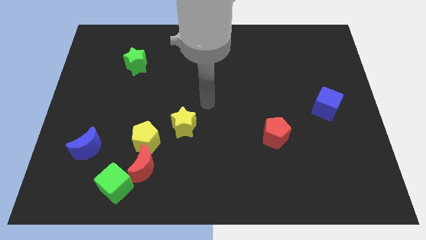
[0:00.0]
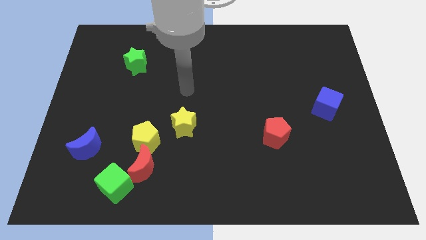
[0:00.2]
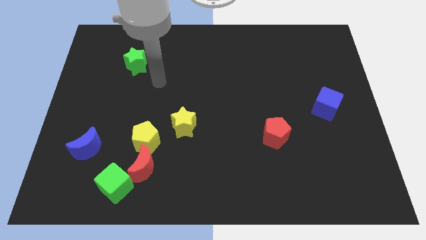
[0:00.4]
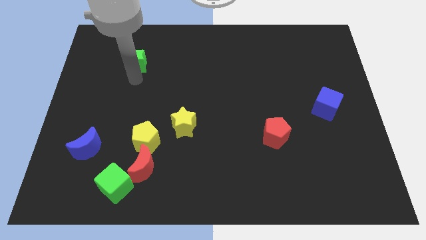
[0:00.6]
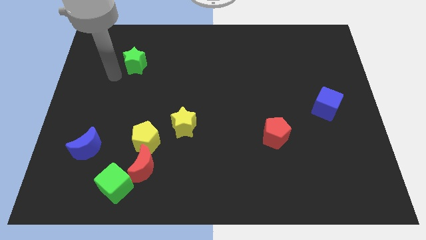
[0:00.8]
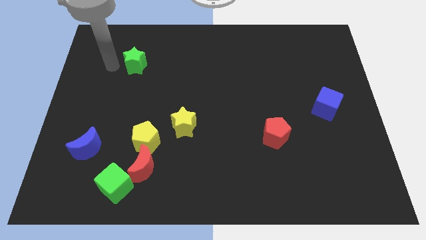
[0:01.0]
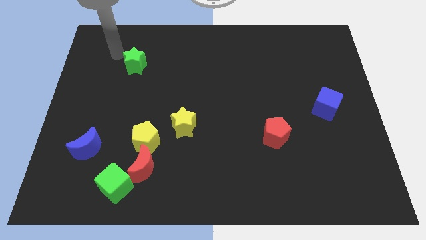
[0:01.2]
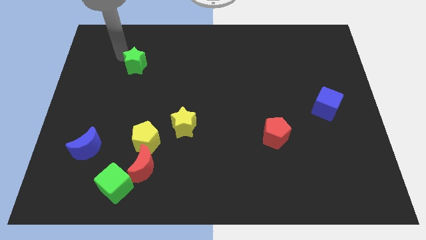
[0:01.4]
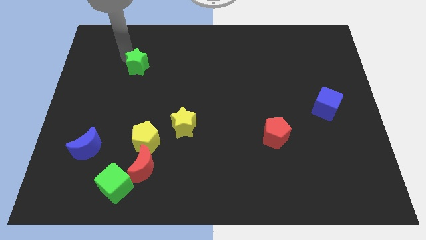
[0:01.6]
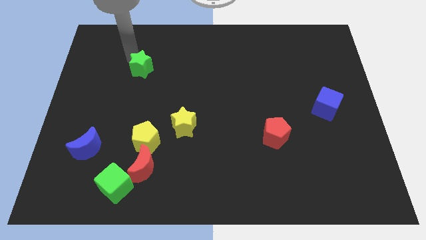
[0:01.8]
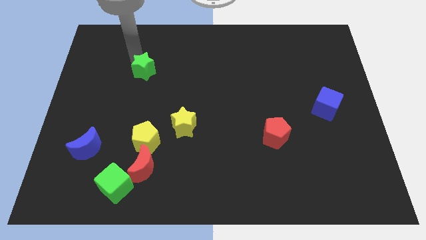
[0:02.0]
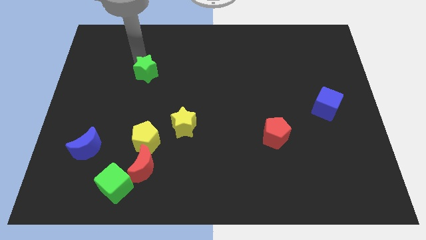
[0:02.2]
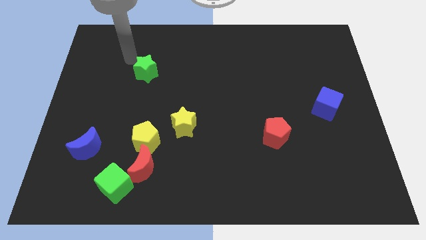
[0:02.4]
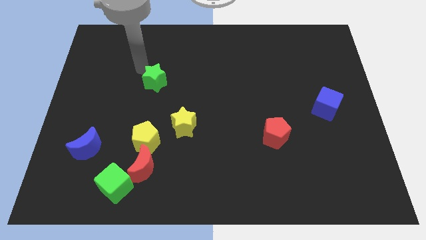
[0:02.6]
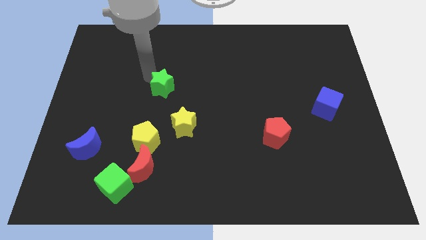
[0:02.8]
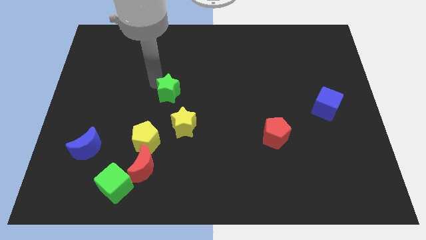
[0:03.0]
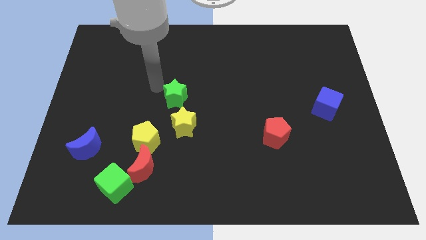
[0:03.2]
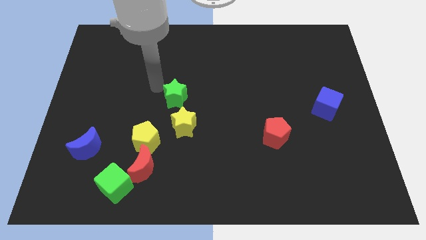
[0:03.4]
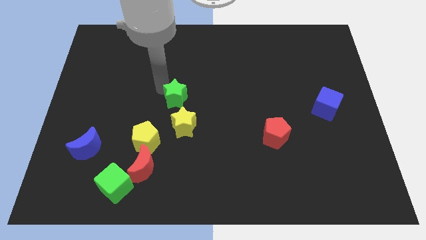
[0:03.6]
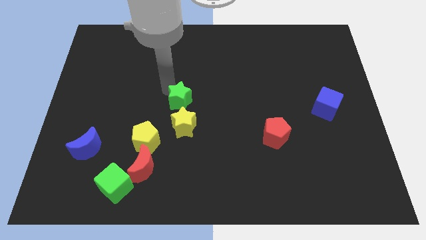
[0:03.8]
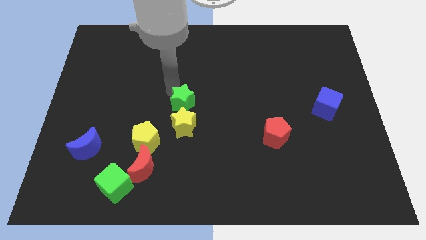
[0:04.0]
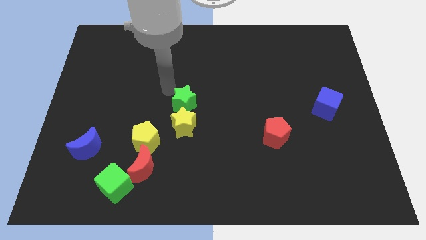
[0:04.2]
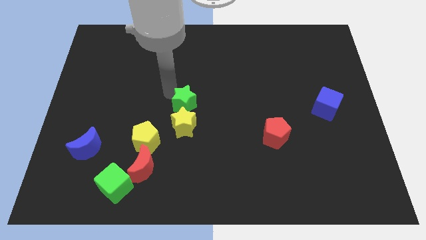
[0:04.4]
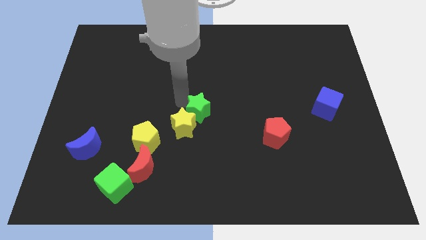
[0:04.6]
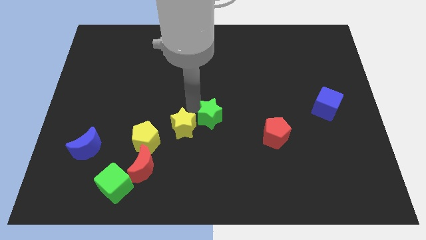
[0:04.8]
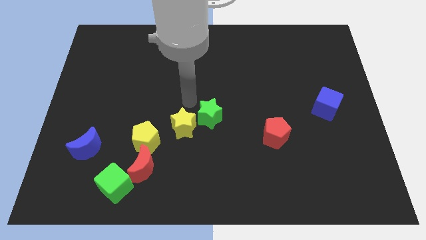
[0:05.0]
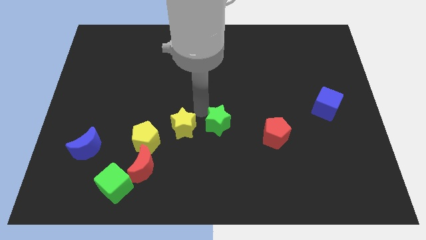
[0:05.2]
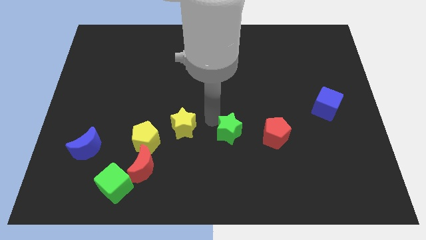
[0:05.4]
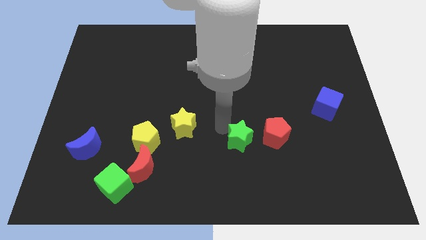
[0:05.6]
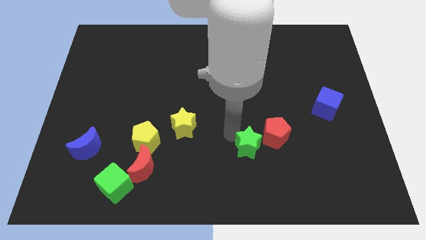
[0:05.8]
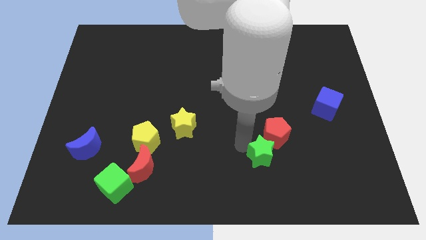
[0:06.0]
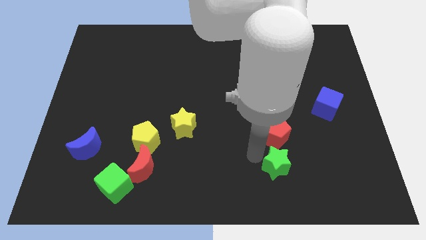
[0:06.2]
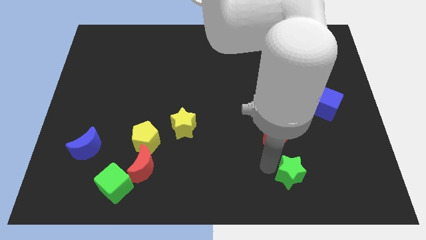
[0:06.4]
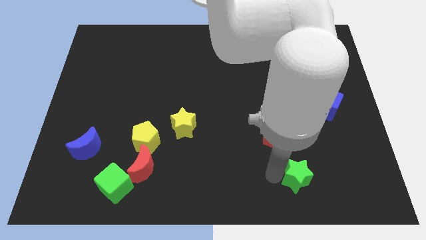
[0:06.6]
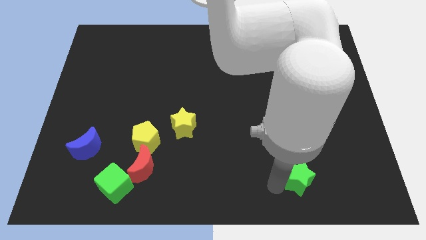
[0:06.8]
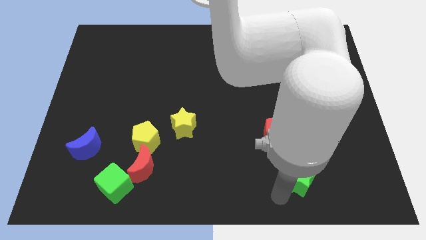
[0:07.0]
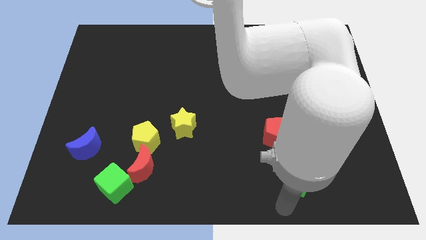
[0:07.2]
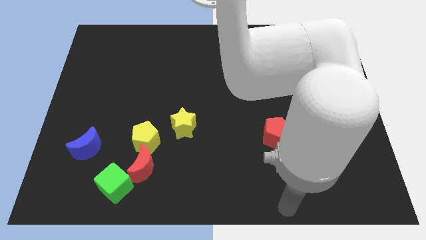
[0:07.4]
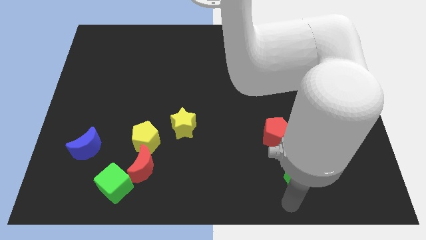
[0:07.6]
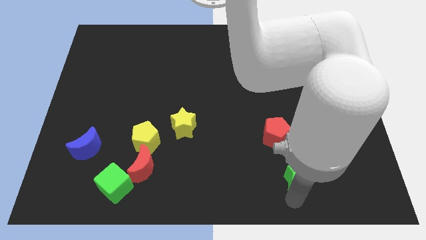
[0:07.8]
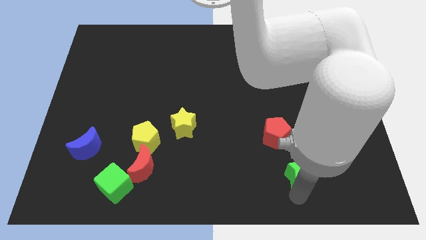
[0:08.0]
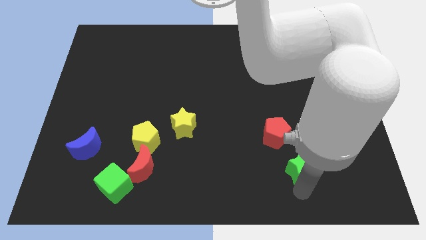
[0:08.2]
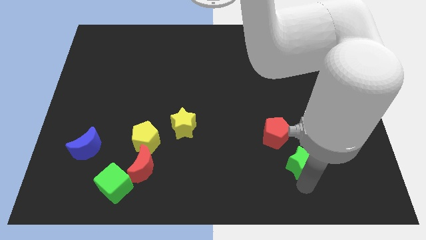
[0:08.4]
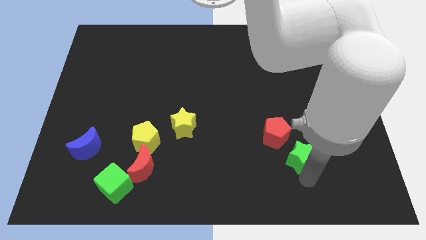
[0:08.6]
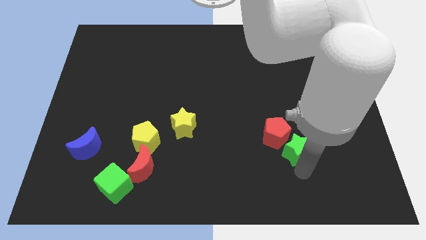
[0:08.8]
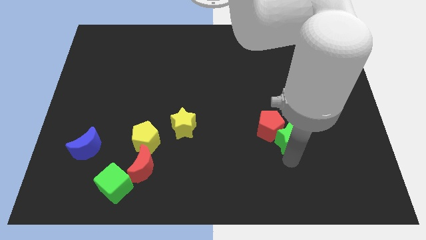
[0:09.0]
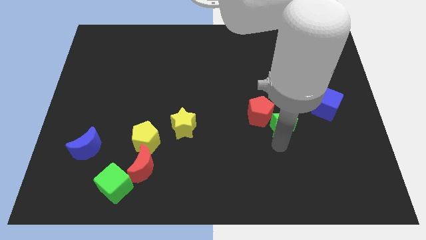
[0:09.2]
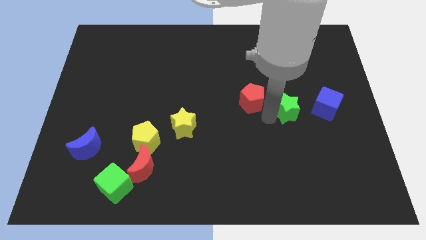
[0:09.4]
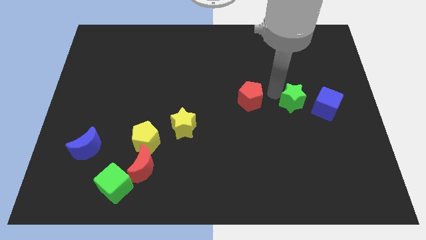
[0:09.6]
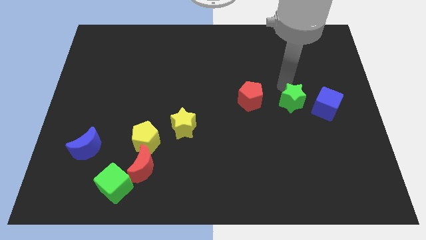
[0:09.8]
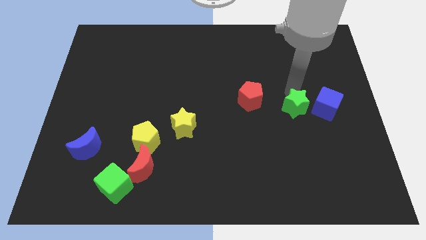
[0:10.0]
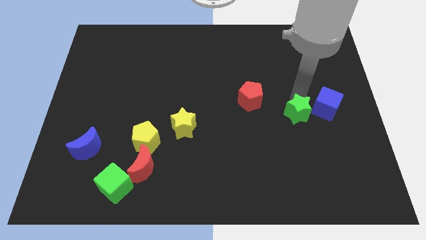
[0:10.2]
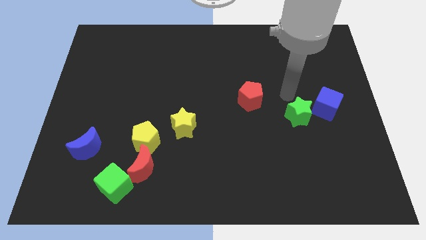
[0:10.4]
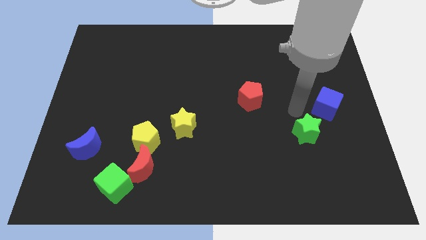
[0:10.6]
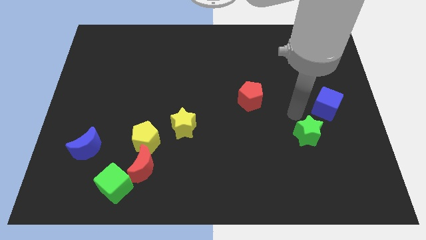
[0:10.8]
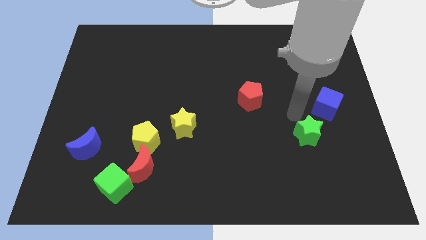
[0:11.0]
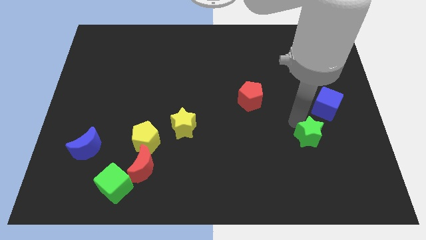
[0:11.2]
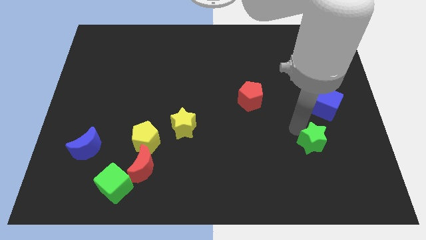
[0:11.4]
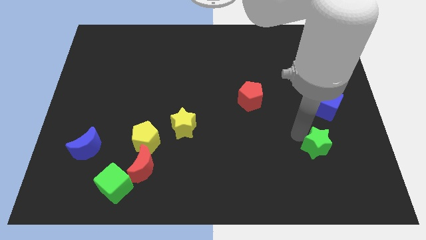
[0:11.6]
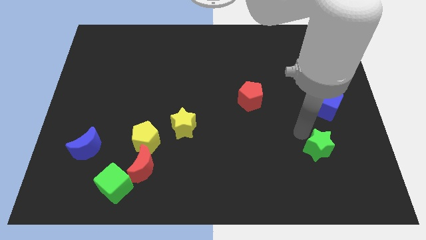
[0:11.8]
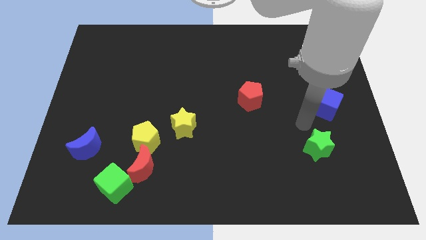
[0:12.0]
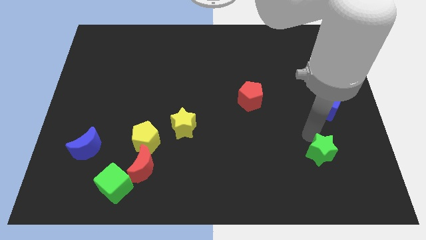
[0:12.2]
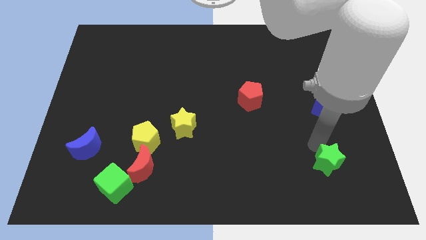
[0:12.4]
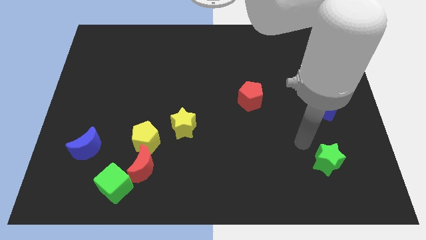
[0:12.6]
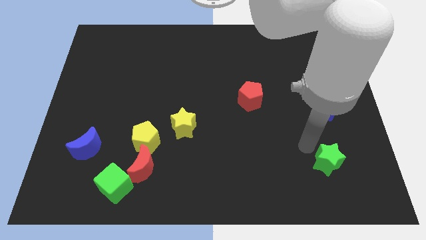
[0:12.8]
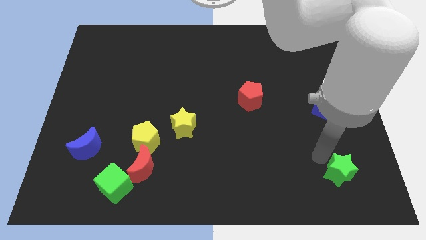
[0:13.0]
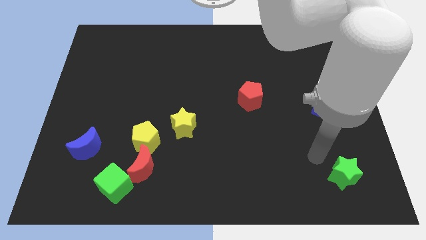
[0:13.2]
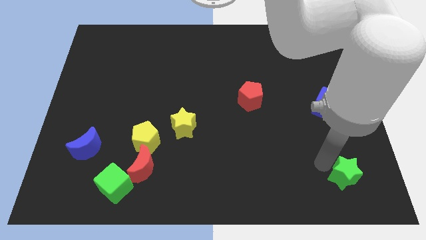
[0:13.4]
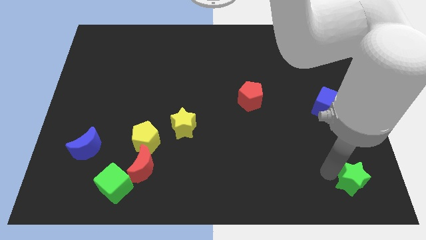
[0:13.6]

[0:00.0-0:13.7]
put the green star to the lower right corner
